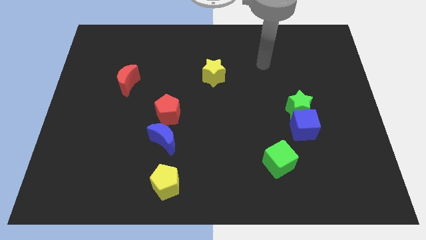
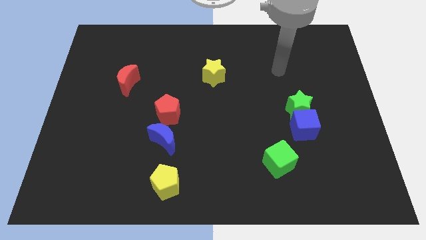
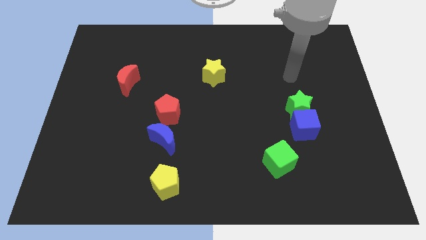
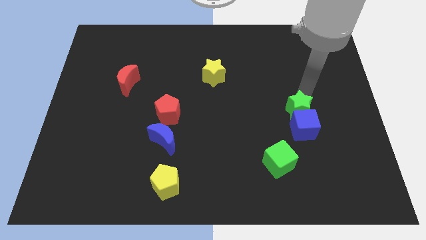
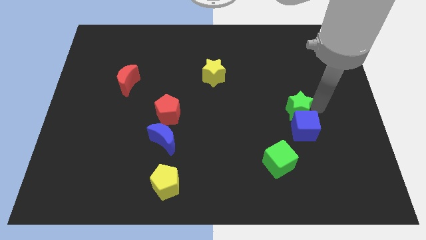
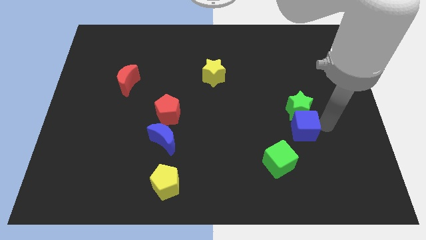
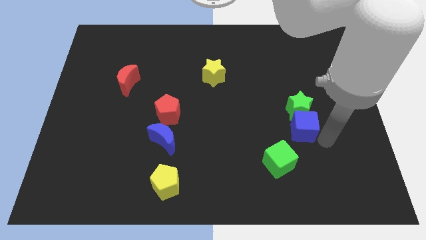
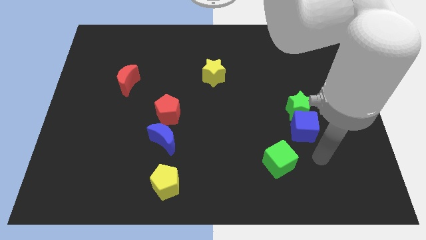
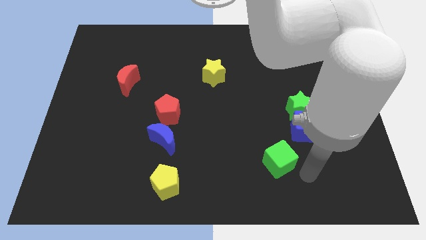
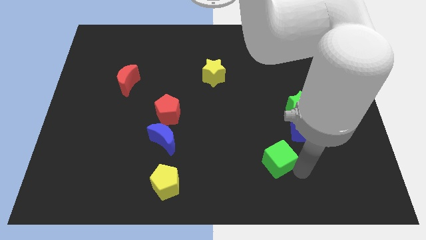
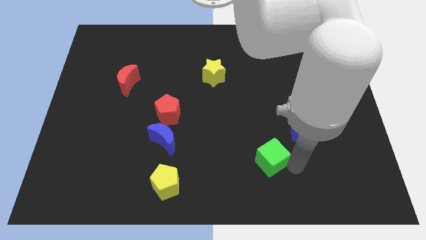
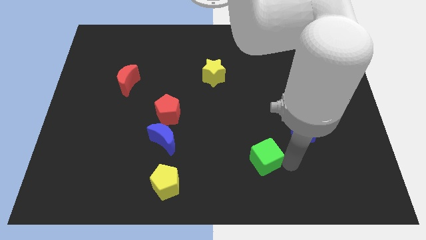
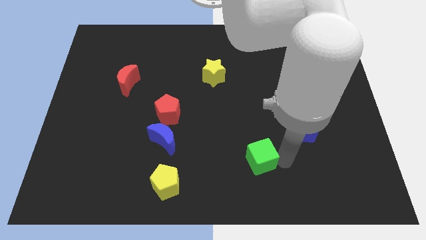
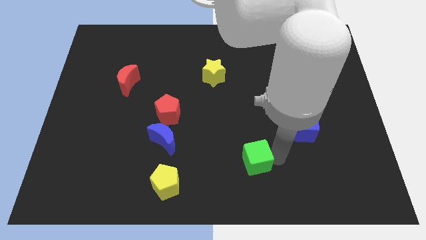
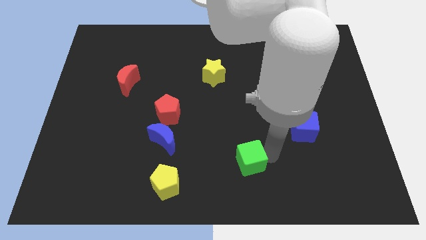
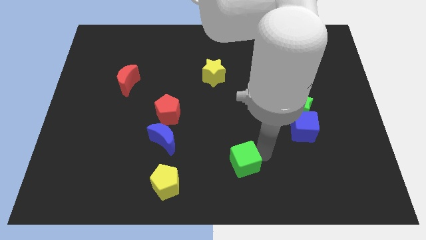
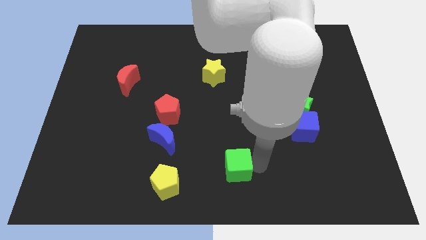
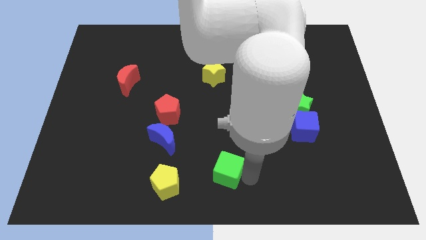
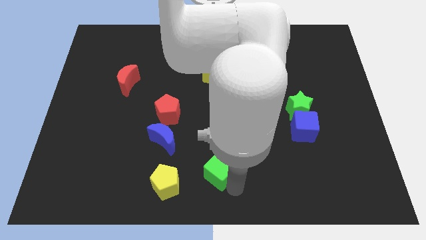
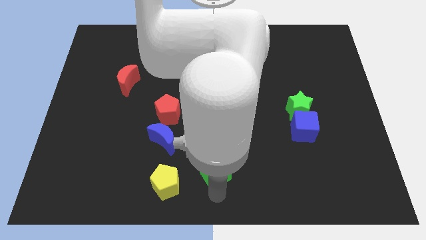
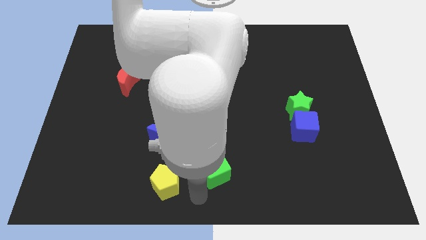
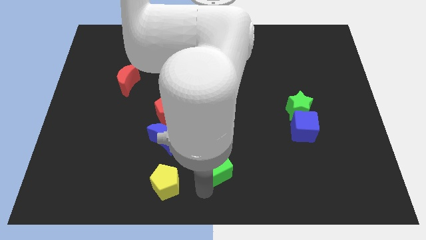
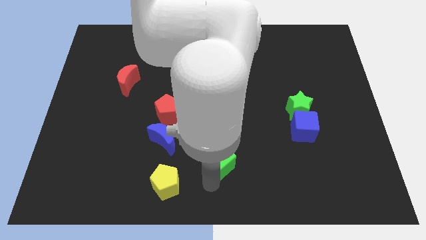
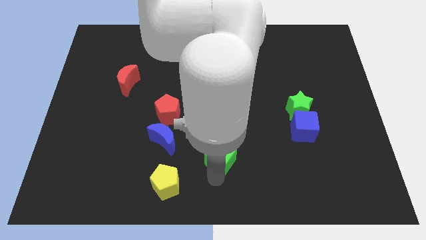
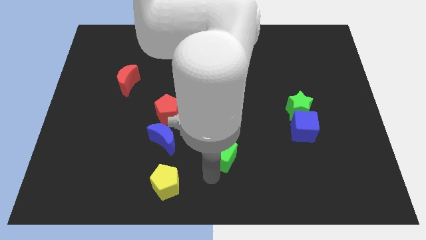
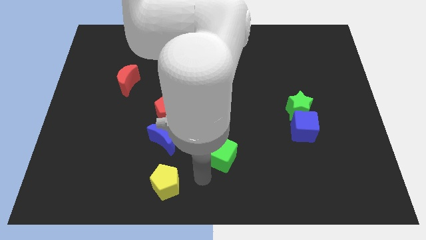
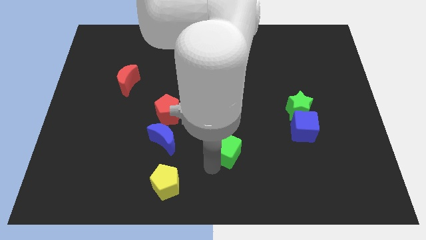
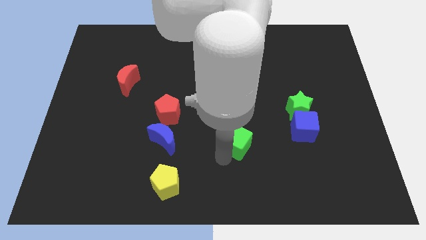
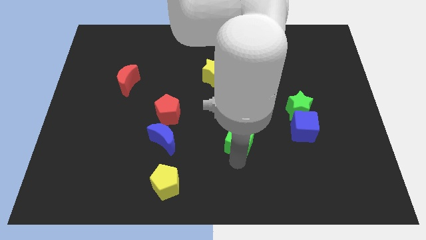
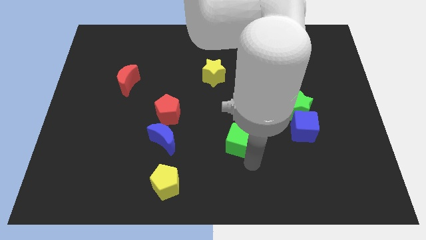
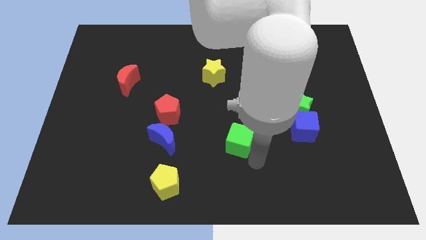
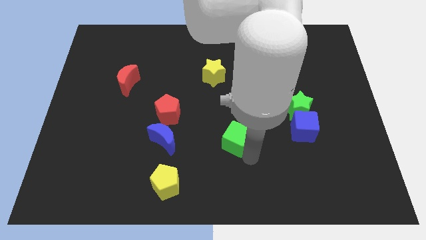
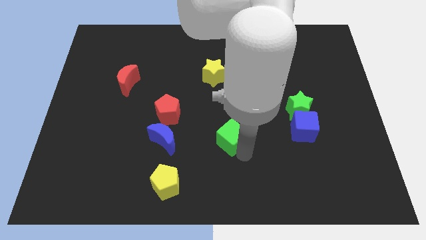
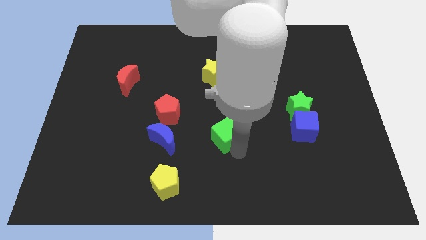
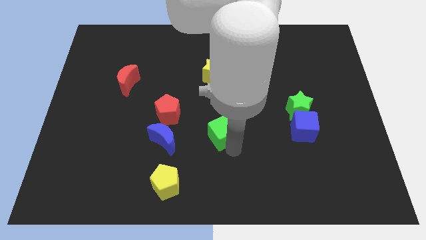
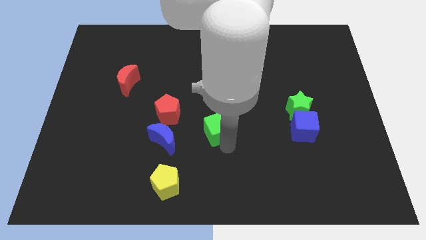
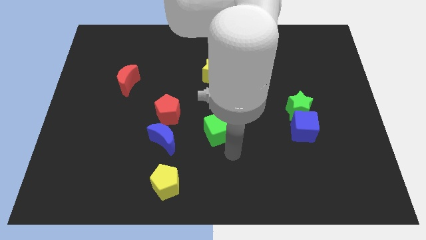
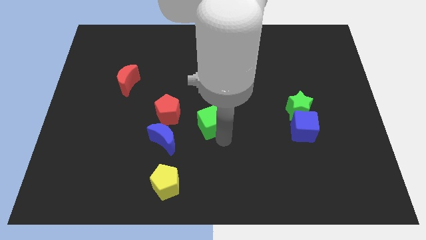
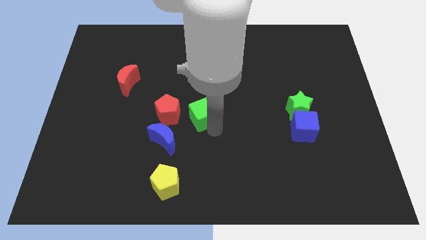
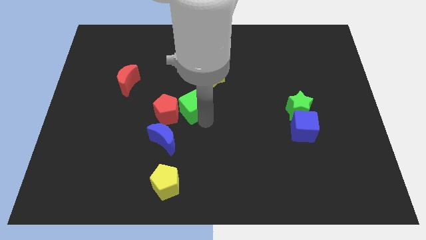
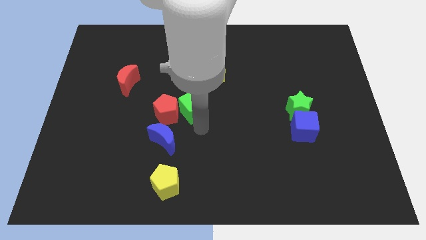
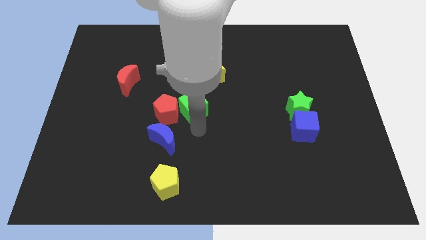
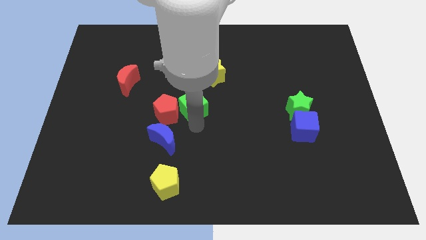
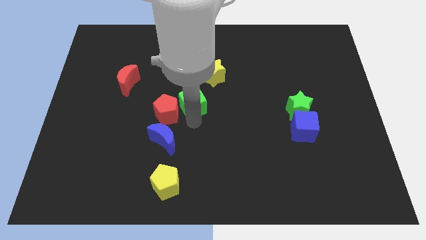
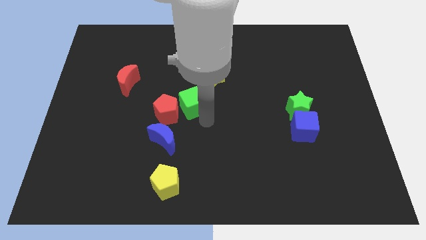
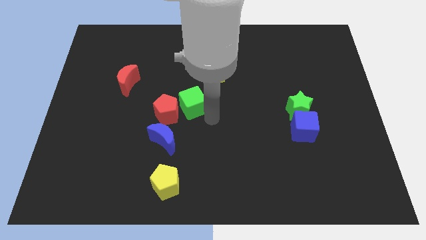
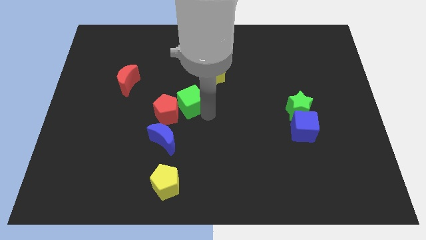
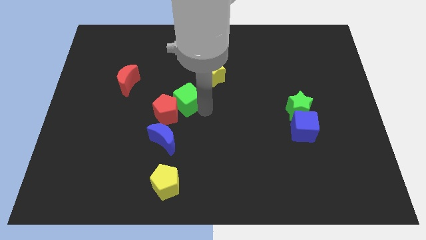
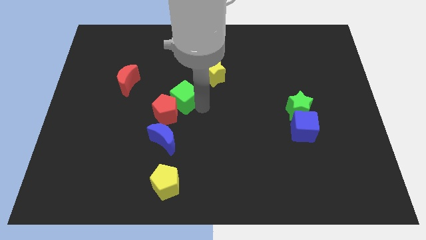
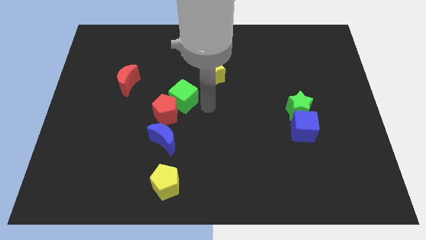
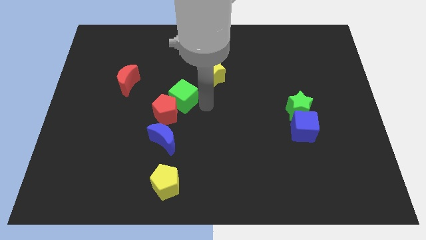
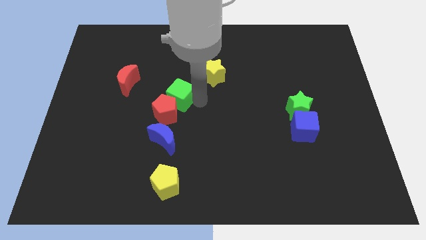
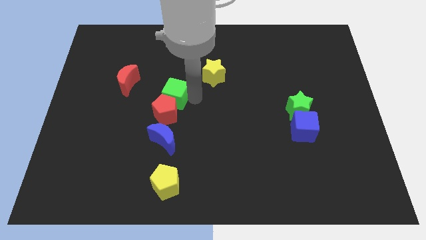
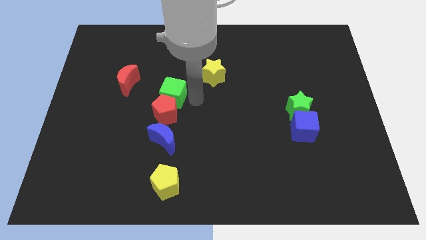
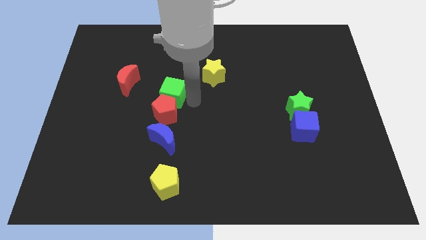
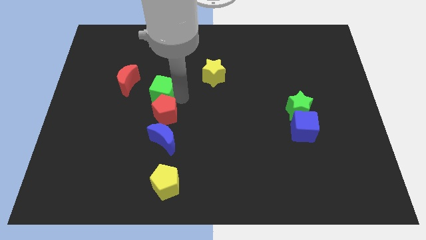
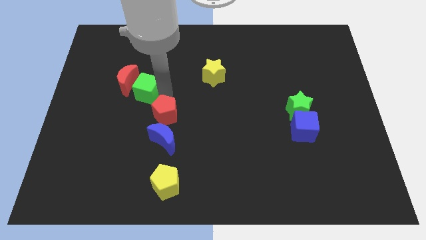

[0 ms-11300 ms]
slide the green cube to the red moon
